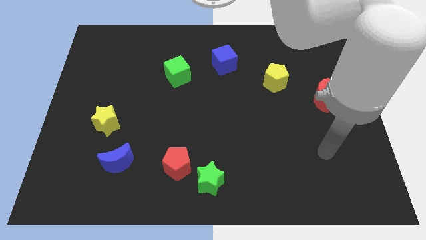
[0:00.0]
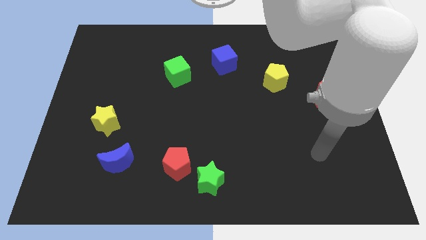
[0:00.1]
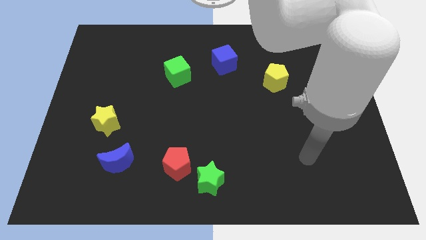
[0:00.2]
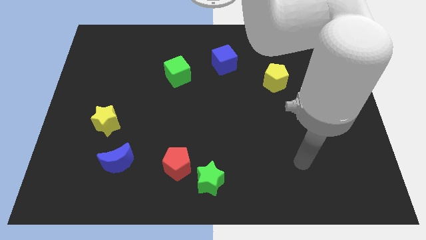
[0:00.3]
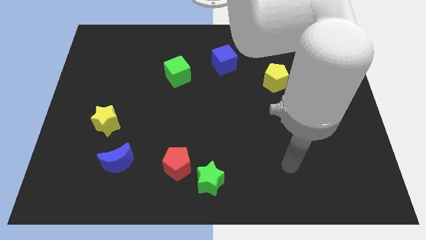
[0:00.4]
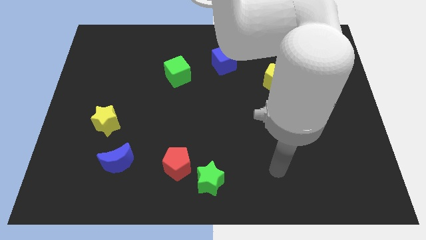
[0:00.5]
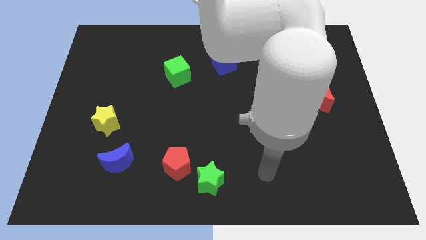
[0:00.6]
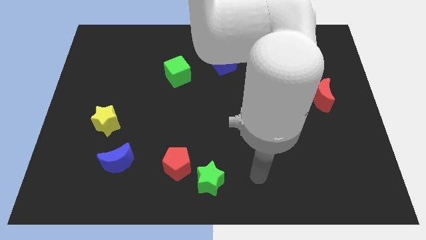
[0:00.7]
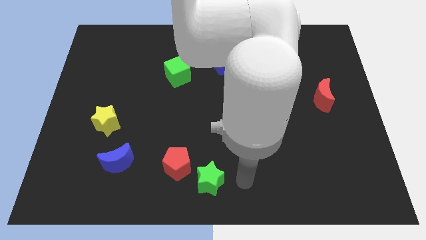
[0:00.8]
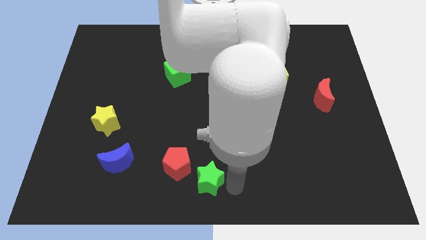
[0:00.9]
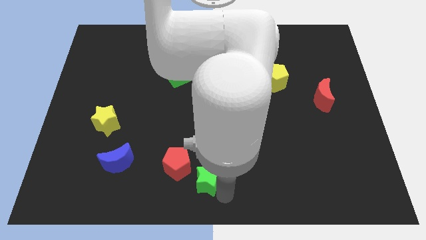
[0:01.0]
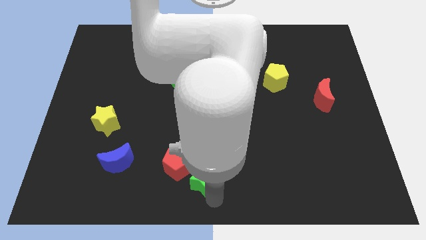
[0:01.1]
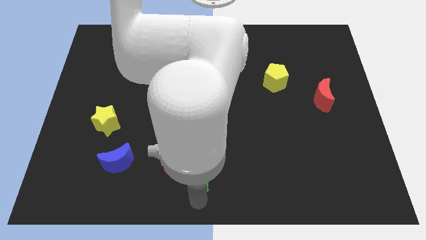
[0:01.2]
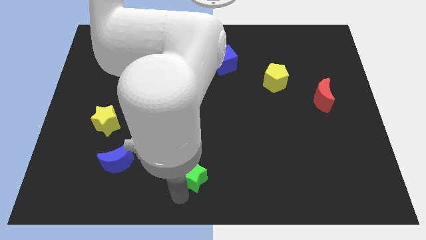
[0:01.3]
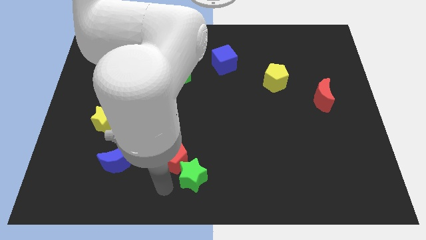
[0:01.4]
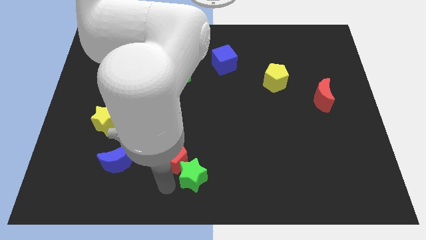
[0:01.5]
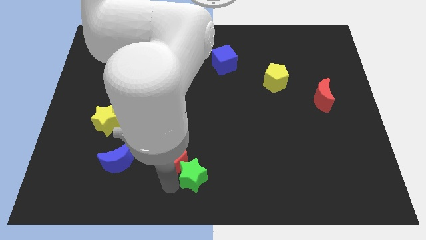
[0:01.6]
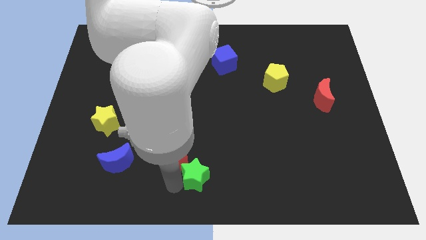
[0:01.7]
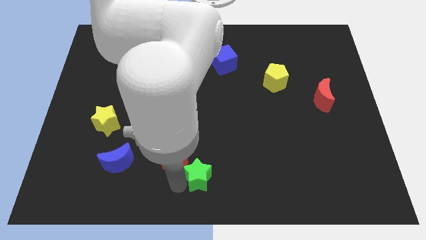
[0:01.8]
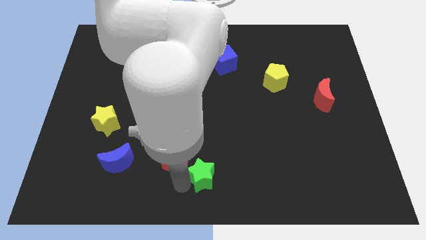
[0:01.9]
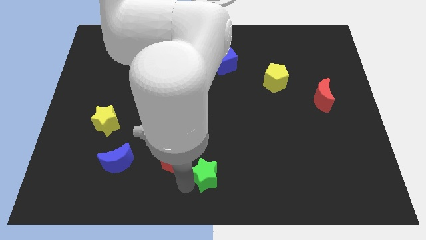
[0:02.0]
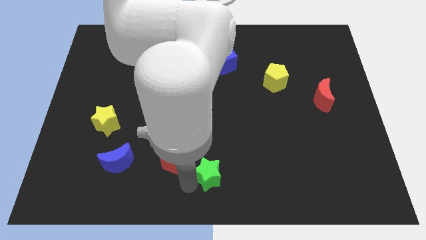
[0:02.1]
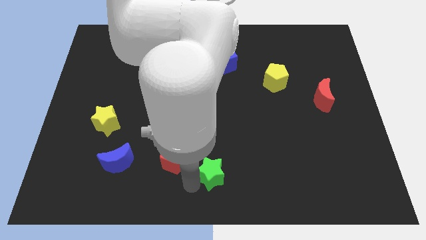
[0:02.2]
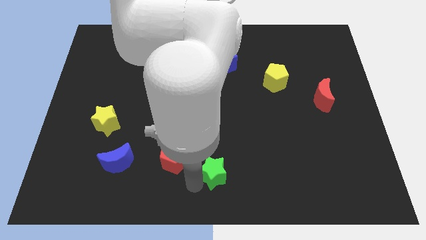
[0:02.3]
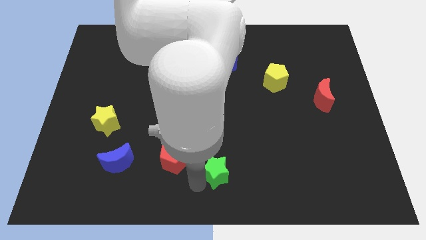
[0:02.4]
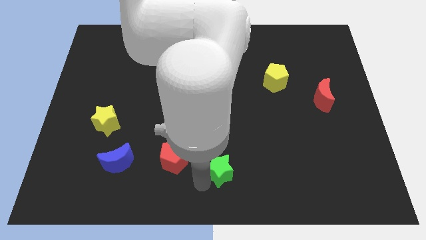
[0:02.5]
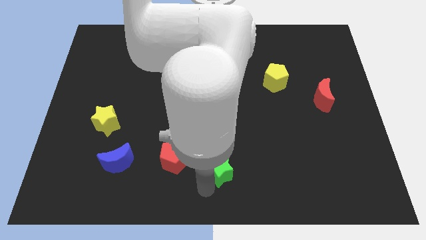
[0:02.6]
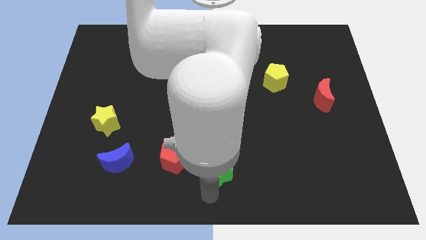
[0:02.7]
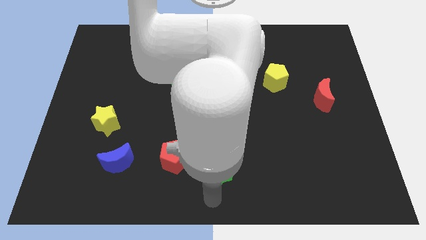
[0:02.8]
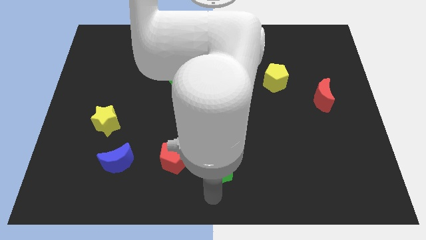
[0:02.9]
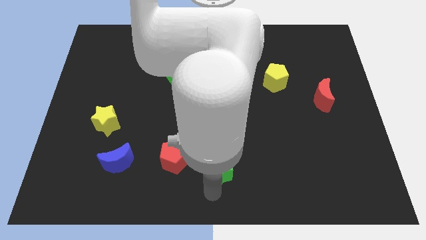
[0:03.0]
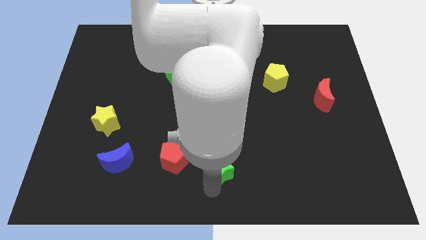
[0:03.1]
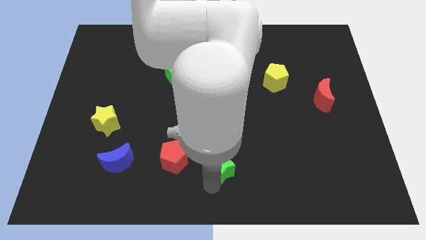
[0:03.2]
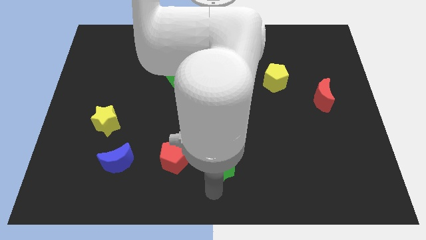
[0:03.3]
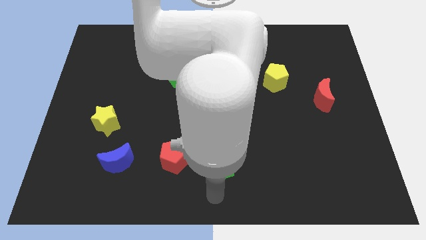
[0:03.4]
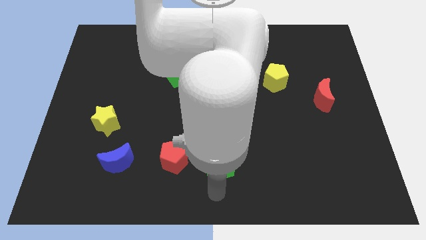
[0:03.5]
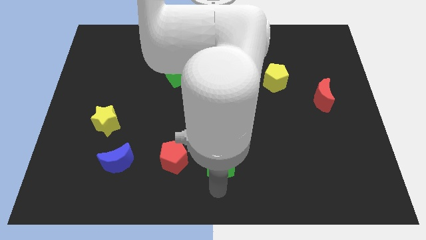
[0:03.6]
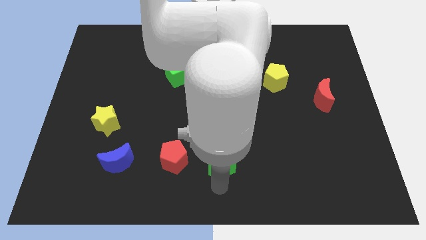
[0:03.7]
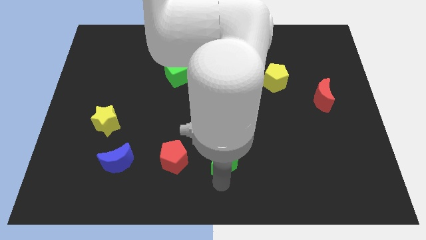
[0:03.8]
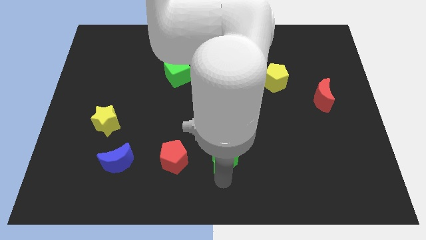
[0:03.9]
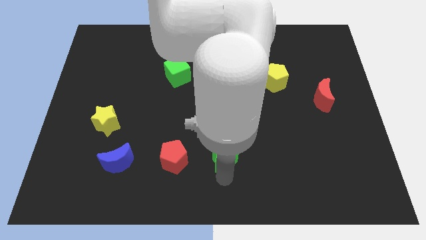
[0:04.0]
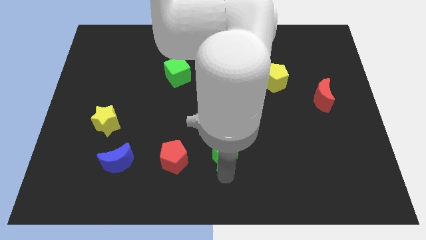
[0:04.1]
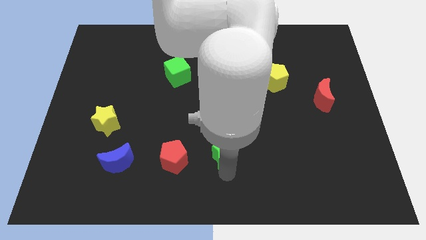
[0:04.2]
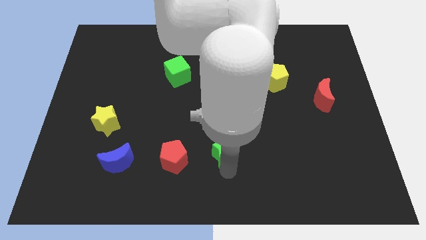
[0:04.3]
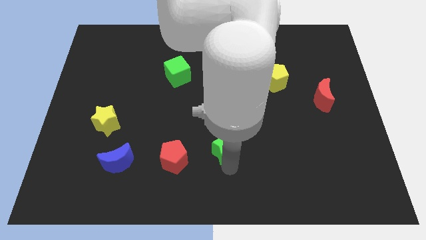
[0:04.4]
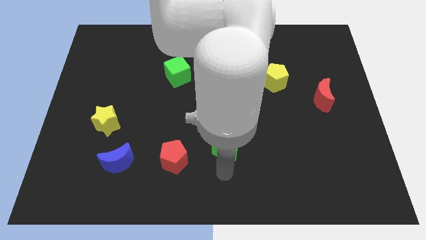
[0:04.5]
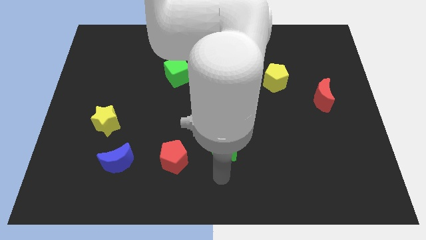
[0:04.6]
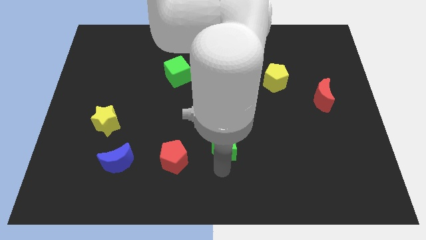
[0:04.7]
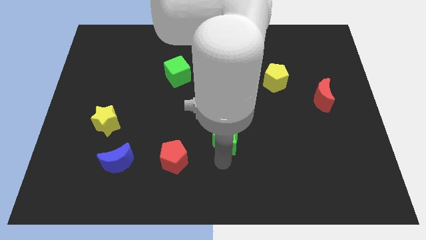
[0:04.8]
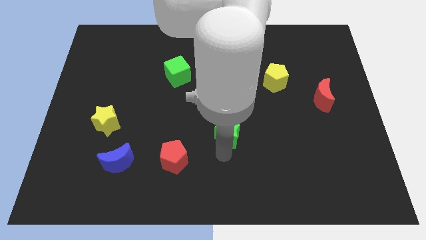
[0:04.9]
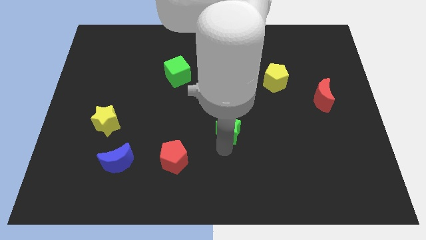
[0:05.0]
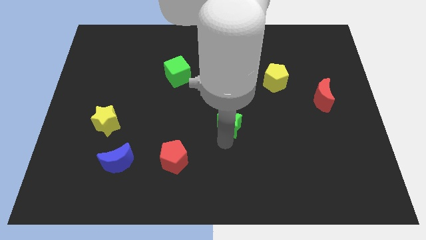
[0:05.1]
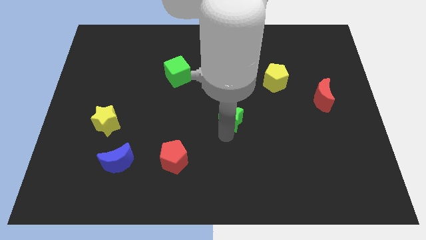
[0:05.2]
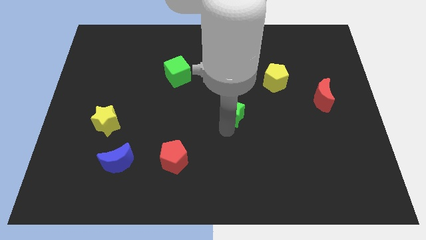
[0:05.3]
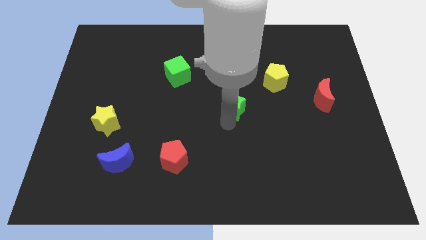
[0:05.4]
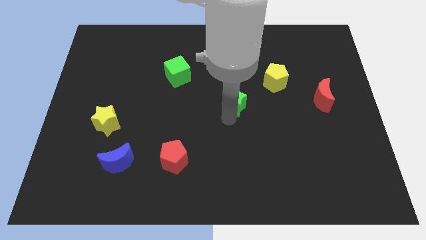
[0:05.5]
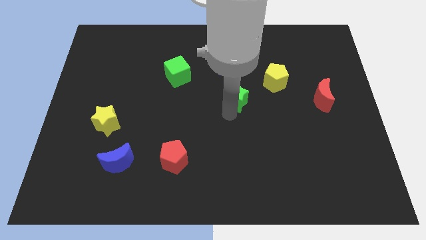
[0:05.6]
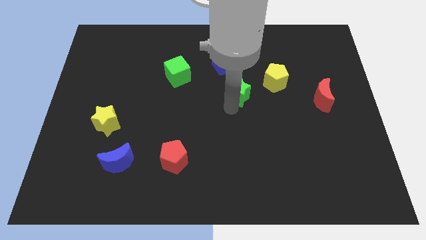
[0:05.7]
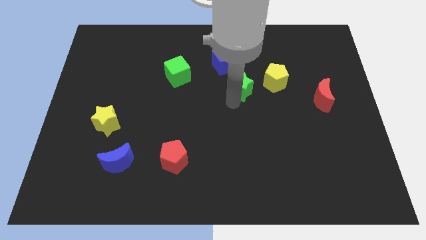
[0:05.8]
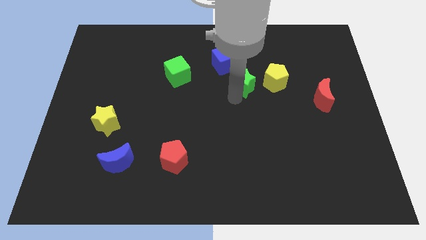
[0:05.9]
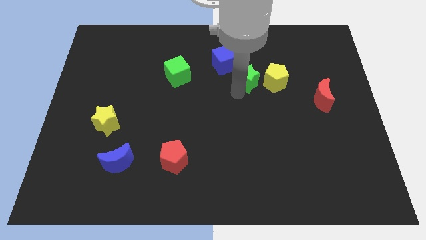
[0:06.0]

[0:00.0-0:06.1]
slide the green star to the top left of the yellow pentagon

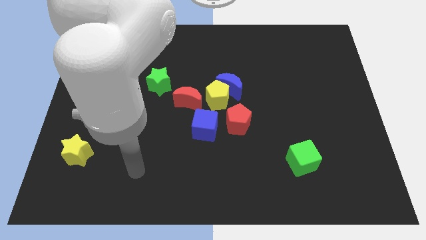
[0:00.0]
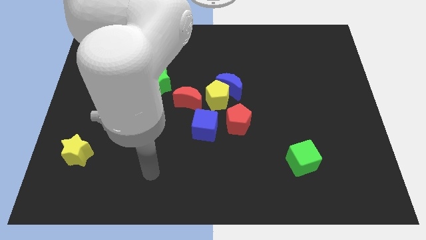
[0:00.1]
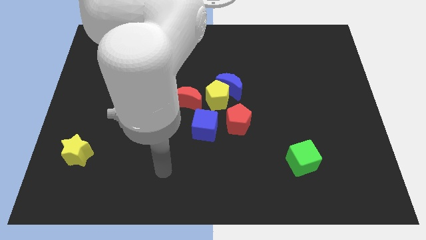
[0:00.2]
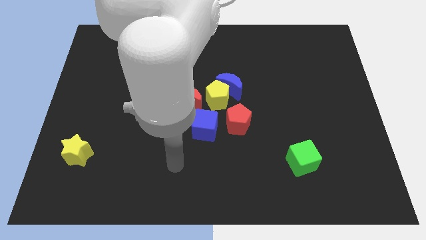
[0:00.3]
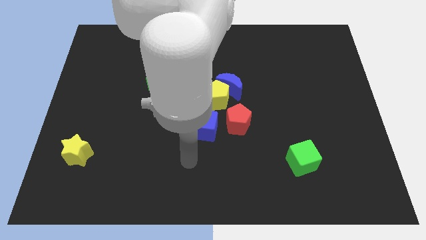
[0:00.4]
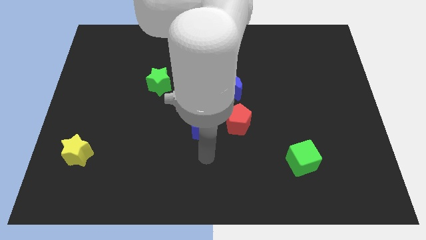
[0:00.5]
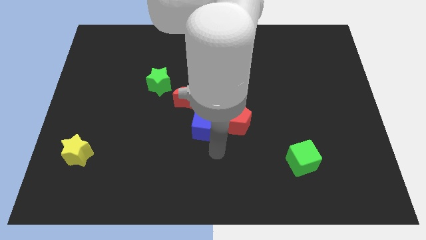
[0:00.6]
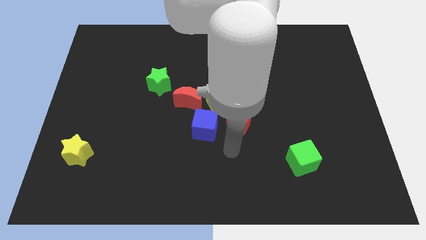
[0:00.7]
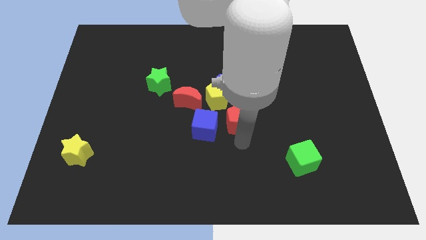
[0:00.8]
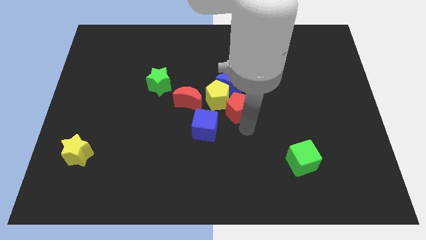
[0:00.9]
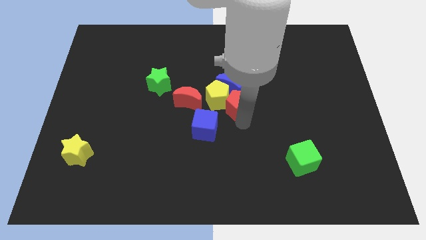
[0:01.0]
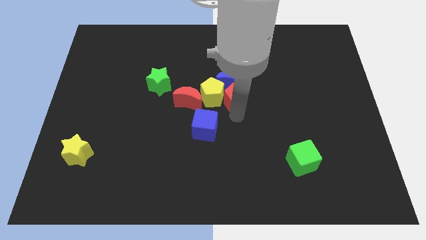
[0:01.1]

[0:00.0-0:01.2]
put the yellow pentagon to the right side of the green star

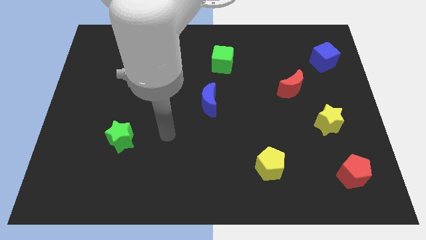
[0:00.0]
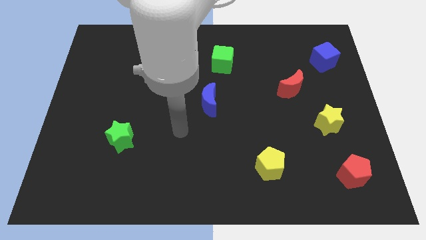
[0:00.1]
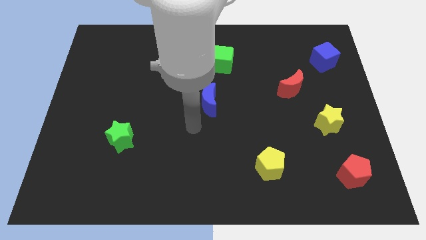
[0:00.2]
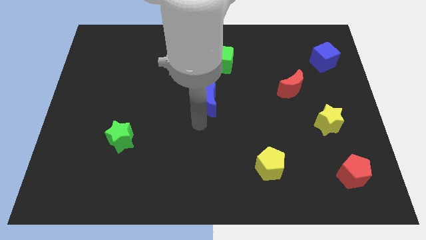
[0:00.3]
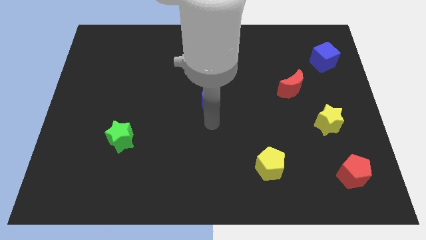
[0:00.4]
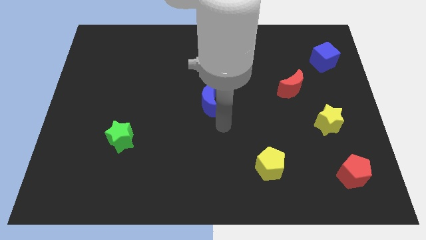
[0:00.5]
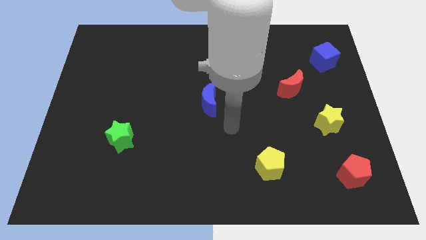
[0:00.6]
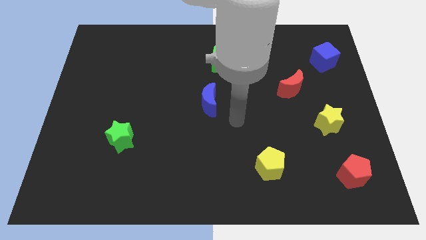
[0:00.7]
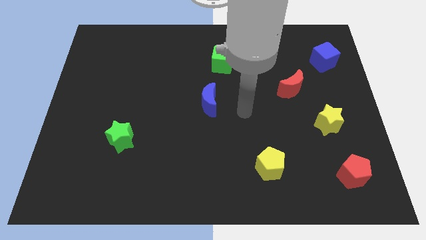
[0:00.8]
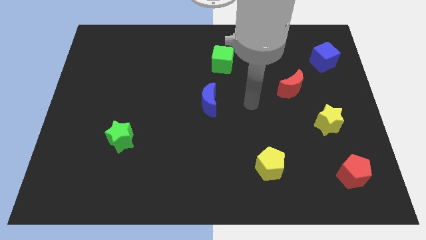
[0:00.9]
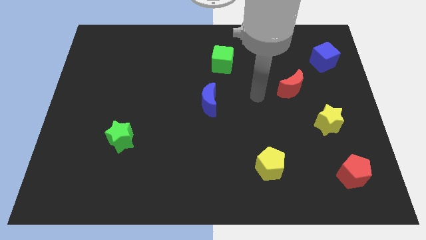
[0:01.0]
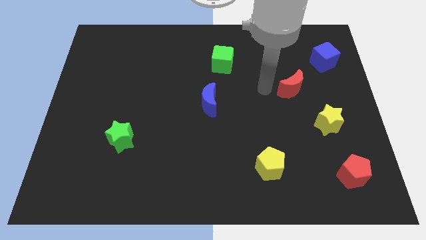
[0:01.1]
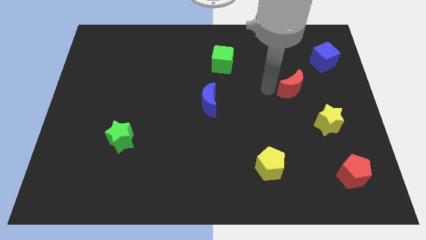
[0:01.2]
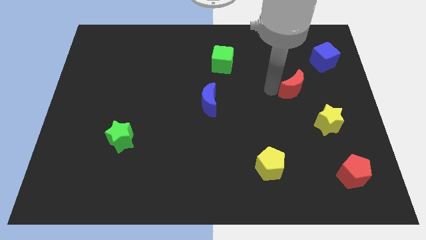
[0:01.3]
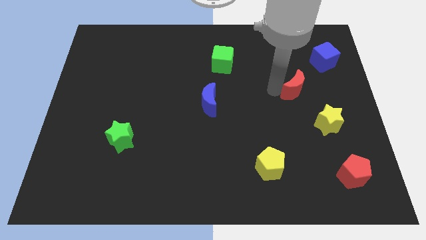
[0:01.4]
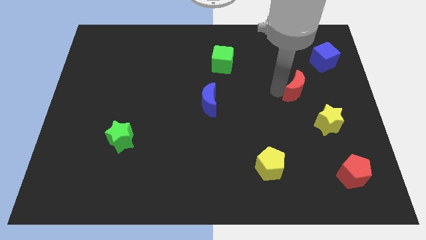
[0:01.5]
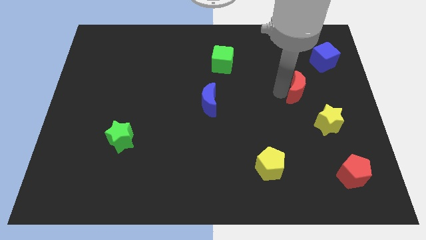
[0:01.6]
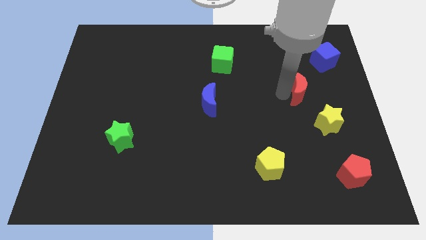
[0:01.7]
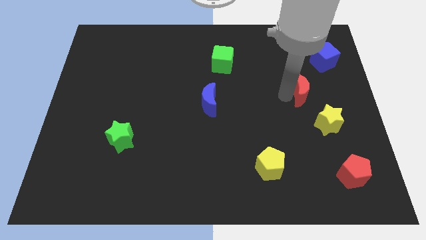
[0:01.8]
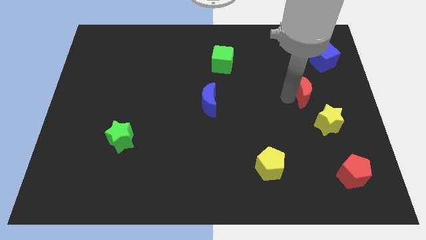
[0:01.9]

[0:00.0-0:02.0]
slide the red moon above the yellow star
